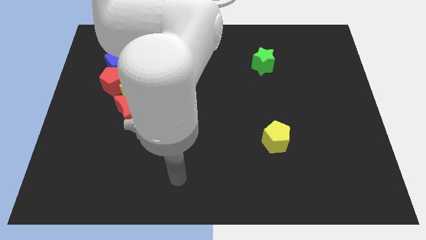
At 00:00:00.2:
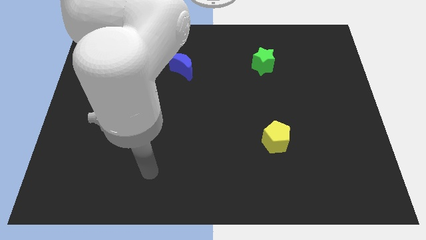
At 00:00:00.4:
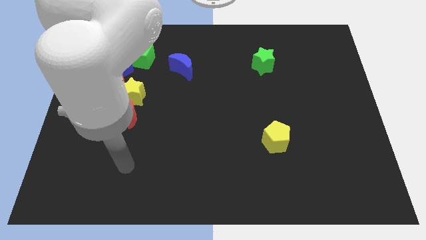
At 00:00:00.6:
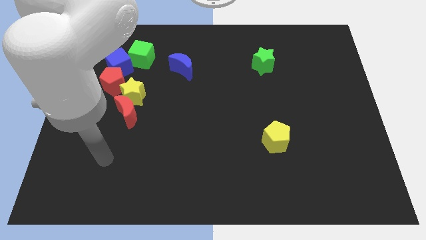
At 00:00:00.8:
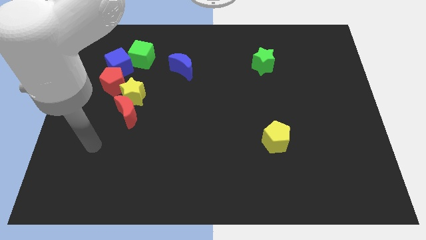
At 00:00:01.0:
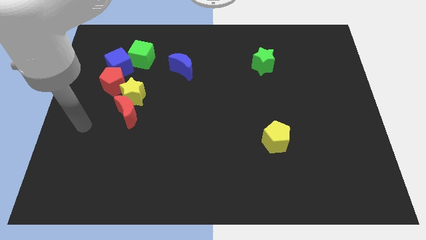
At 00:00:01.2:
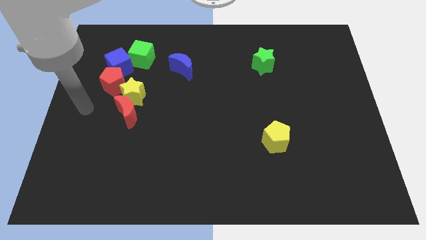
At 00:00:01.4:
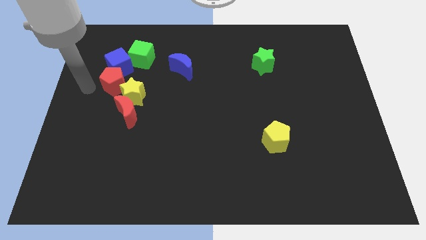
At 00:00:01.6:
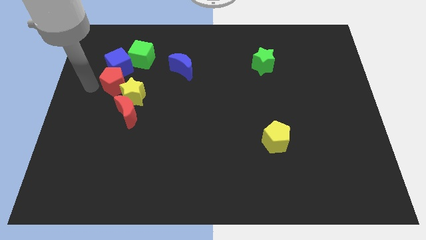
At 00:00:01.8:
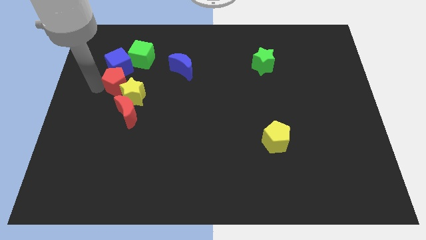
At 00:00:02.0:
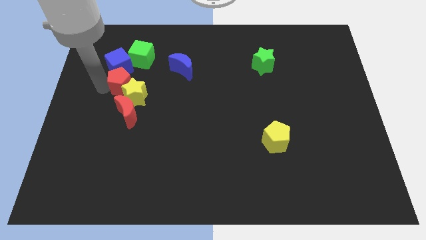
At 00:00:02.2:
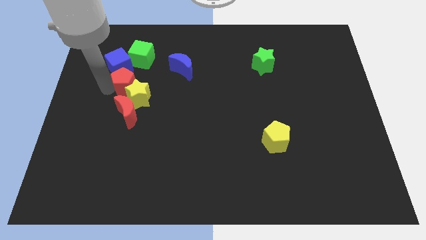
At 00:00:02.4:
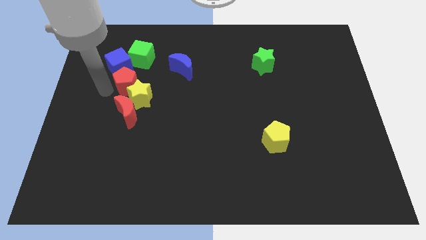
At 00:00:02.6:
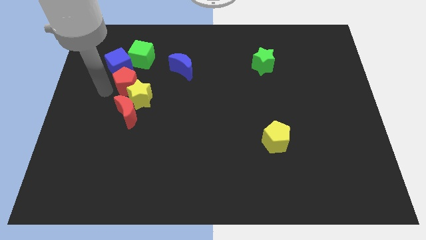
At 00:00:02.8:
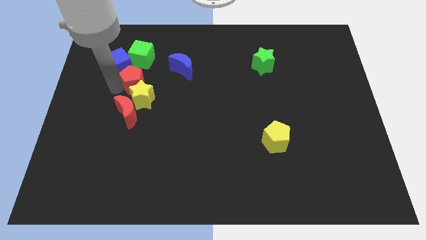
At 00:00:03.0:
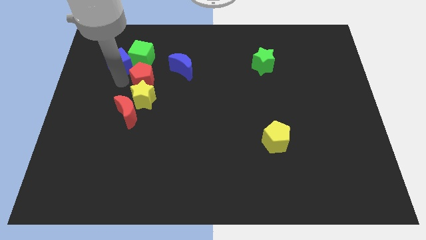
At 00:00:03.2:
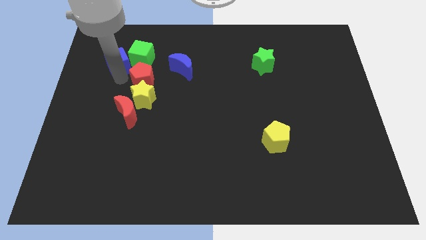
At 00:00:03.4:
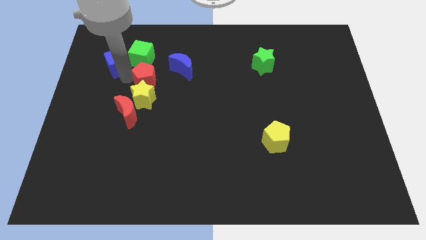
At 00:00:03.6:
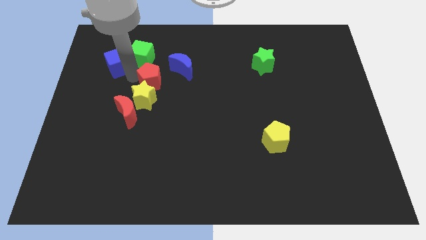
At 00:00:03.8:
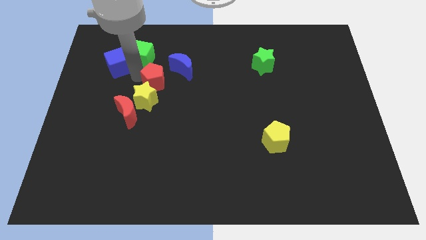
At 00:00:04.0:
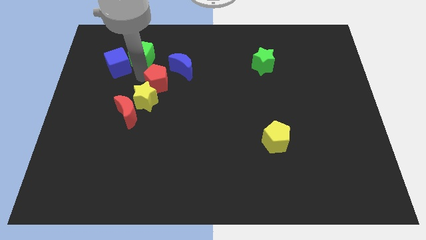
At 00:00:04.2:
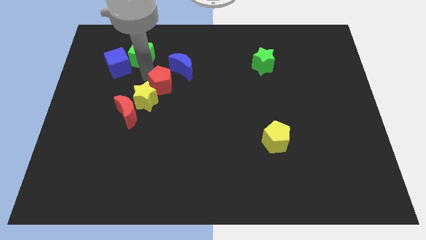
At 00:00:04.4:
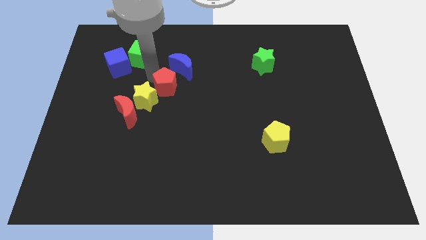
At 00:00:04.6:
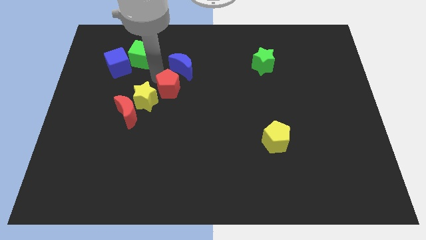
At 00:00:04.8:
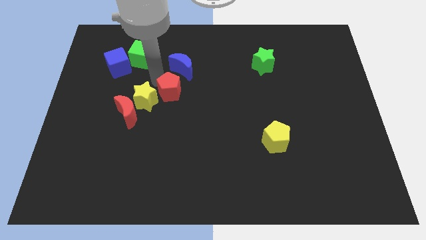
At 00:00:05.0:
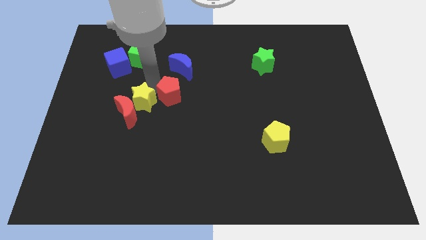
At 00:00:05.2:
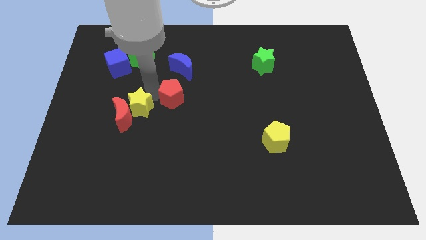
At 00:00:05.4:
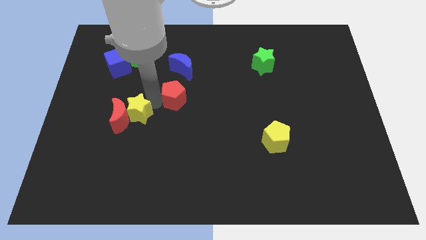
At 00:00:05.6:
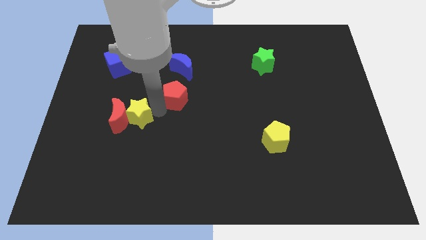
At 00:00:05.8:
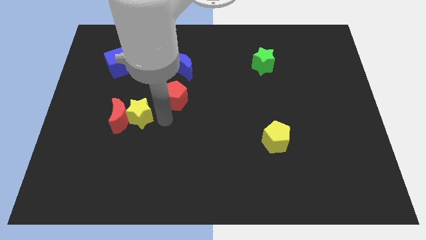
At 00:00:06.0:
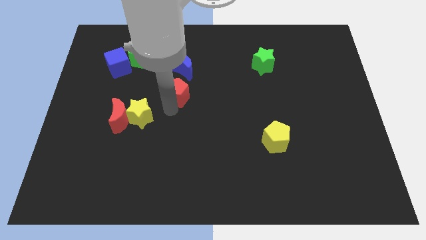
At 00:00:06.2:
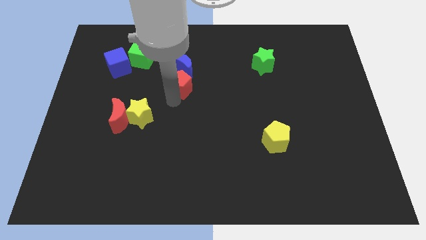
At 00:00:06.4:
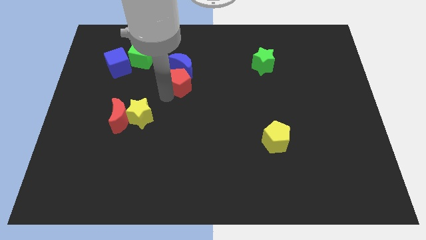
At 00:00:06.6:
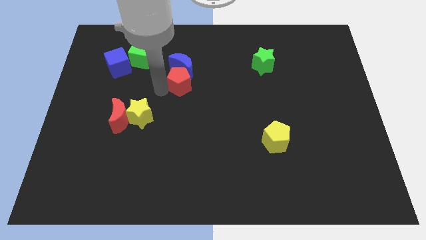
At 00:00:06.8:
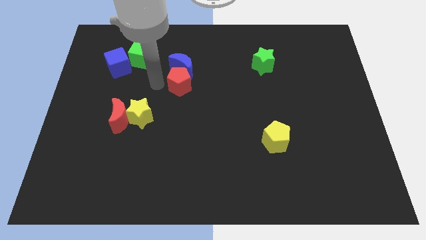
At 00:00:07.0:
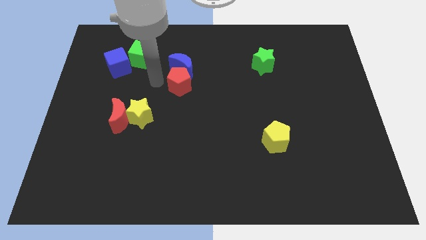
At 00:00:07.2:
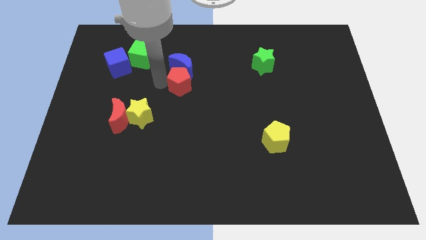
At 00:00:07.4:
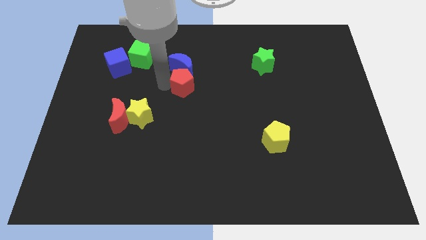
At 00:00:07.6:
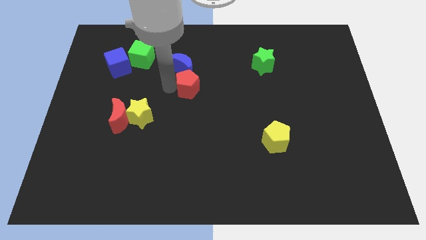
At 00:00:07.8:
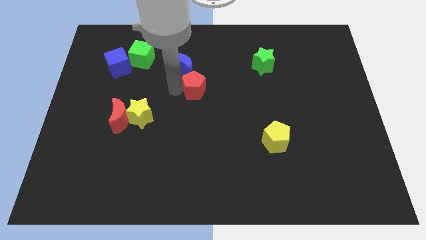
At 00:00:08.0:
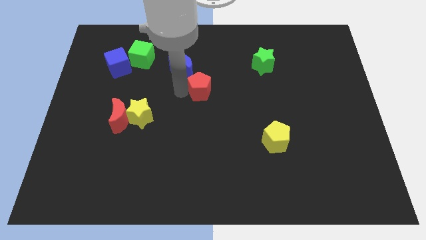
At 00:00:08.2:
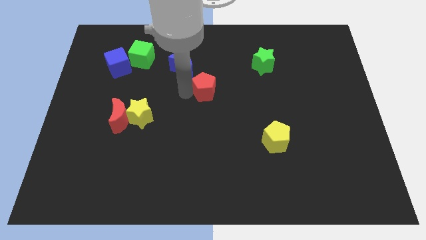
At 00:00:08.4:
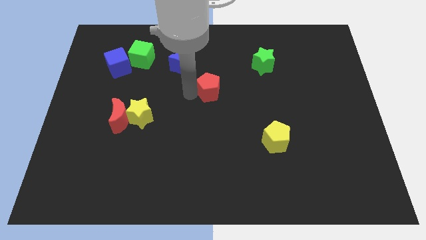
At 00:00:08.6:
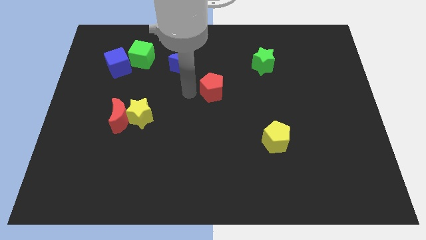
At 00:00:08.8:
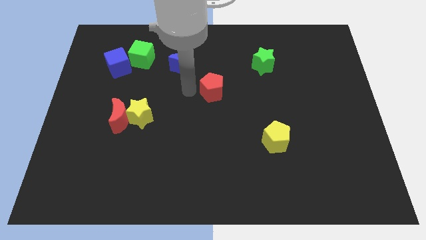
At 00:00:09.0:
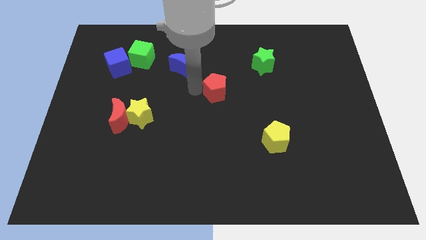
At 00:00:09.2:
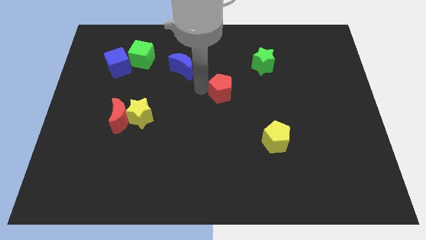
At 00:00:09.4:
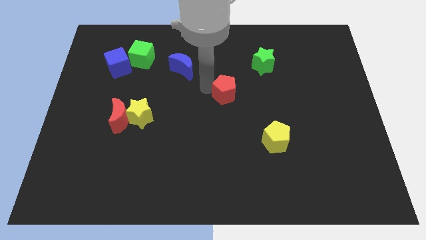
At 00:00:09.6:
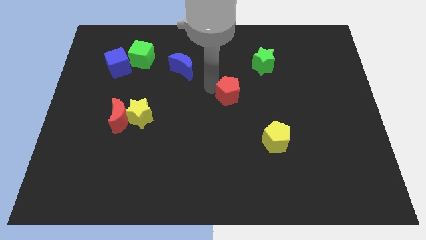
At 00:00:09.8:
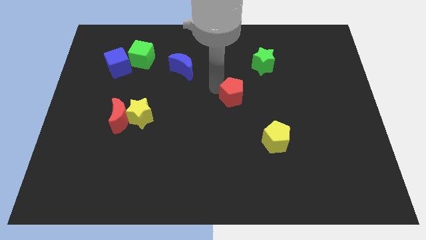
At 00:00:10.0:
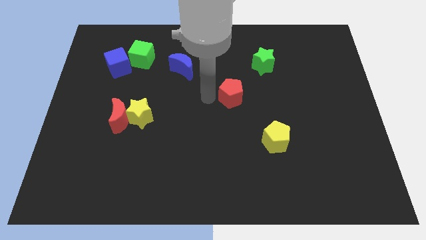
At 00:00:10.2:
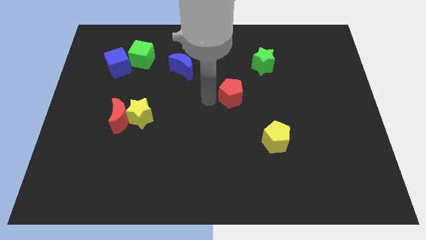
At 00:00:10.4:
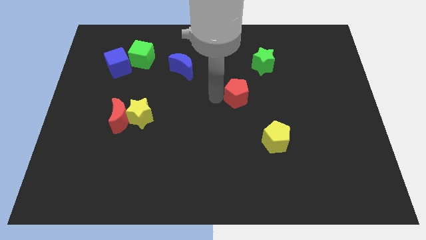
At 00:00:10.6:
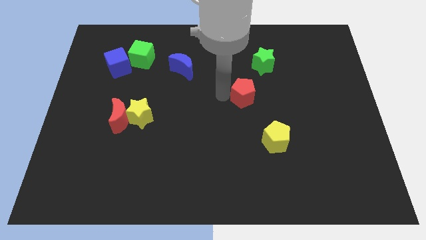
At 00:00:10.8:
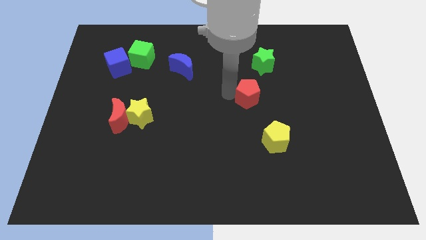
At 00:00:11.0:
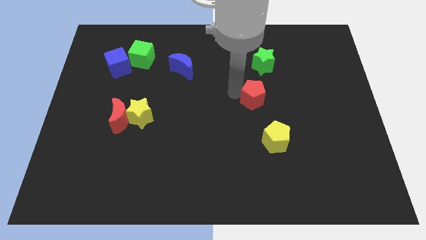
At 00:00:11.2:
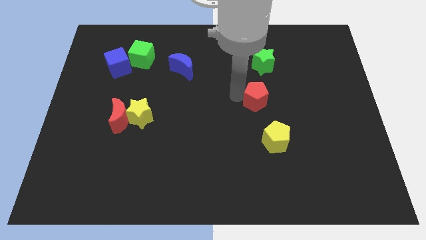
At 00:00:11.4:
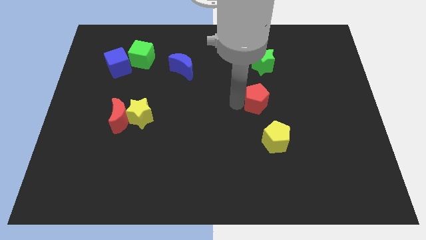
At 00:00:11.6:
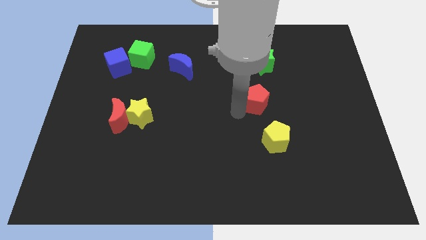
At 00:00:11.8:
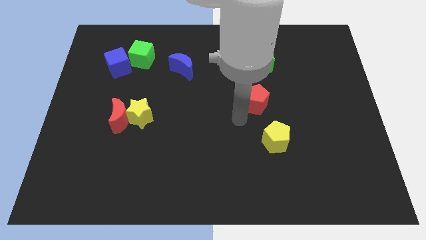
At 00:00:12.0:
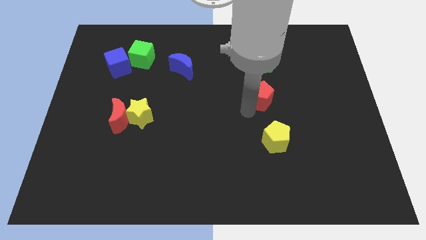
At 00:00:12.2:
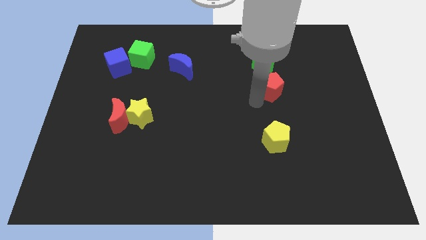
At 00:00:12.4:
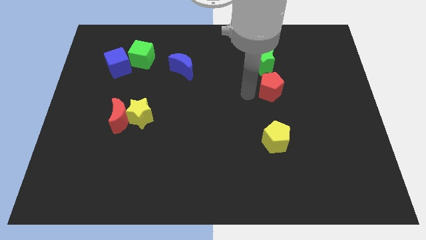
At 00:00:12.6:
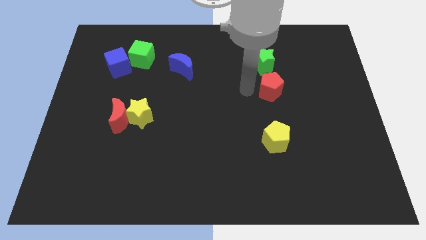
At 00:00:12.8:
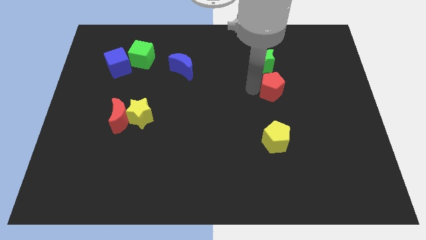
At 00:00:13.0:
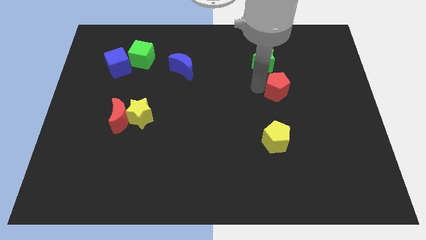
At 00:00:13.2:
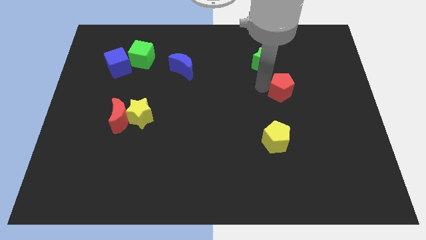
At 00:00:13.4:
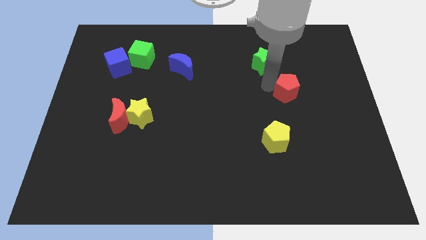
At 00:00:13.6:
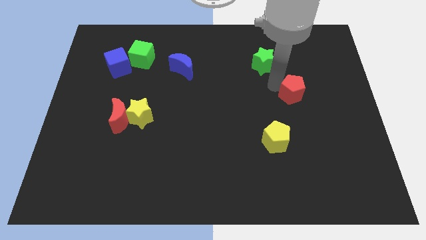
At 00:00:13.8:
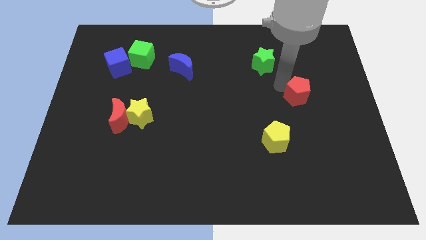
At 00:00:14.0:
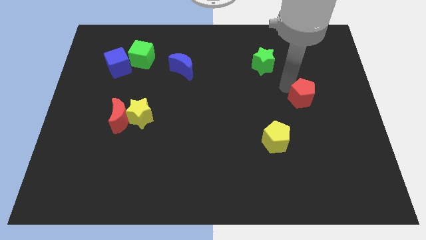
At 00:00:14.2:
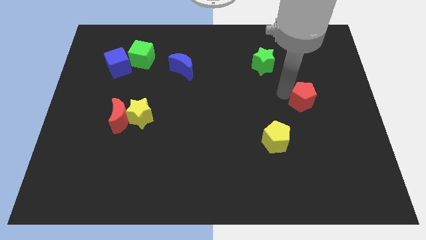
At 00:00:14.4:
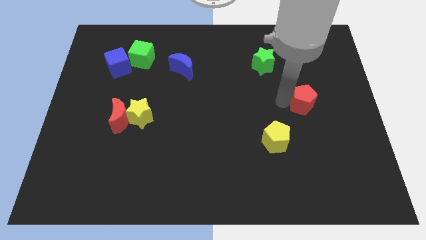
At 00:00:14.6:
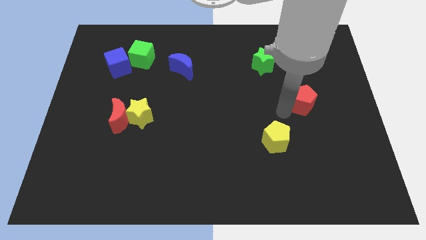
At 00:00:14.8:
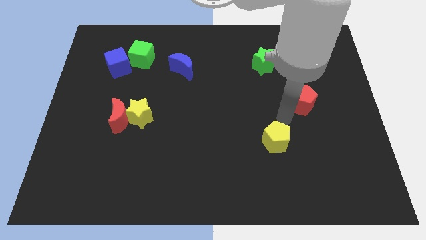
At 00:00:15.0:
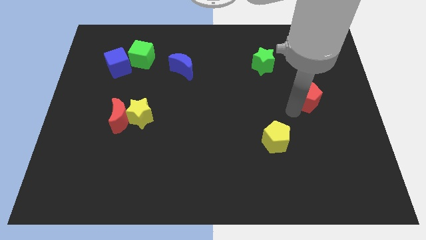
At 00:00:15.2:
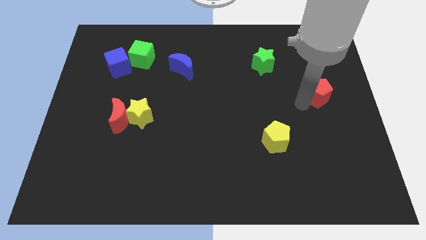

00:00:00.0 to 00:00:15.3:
put the red pentagon to the right side of the board
